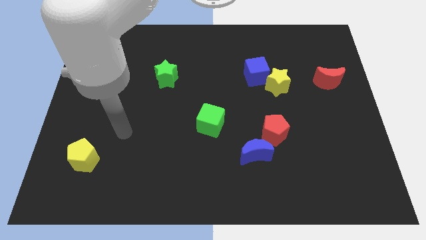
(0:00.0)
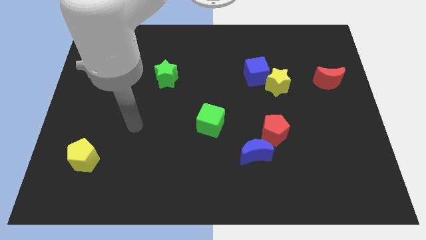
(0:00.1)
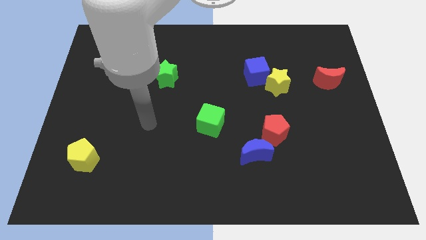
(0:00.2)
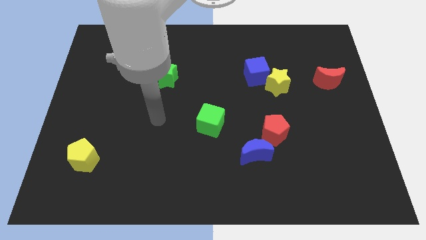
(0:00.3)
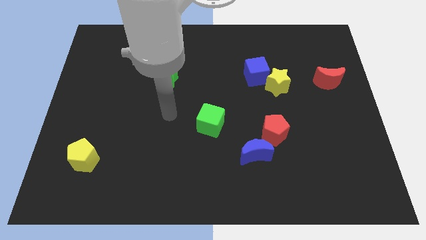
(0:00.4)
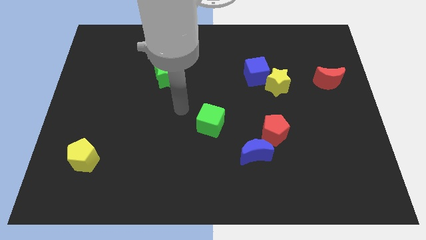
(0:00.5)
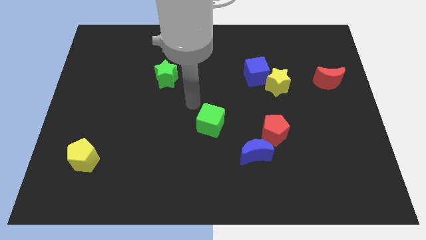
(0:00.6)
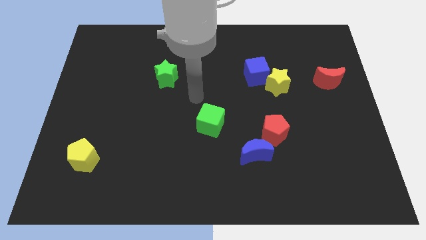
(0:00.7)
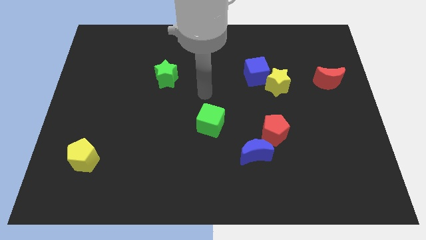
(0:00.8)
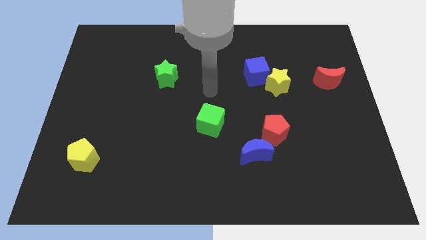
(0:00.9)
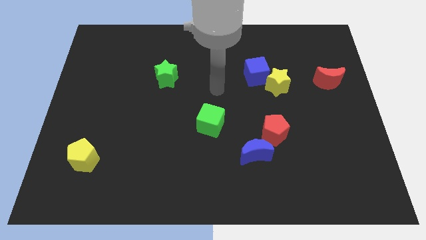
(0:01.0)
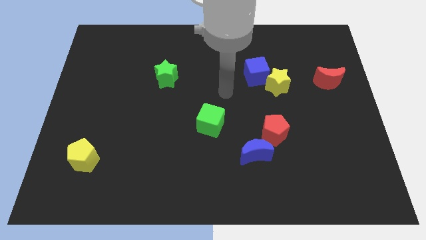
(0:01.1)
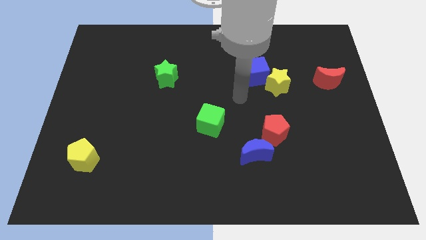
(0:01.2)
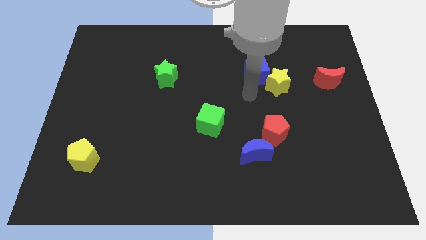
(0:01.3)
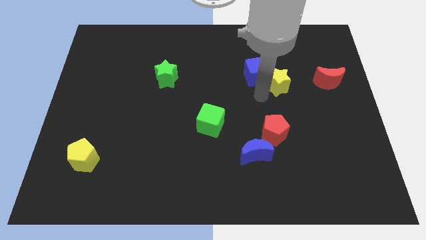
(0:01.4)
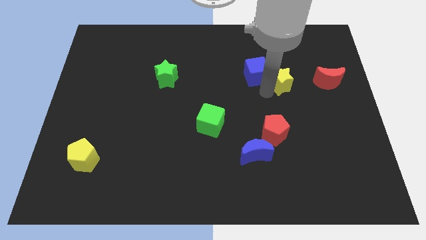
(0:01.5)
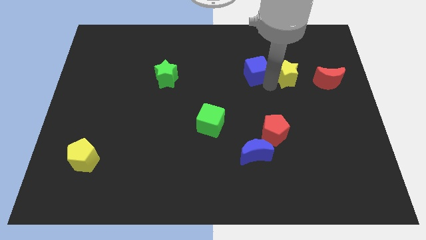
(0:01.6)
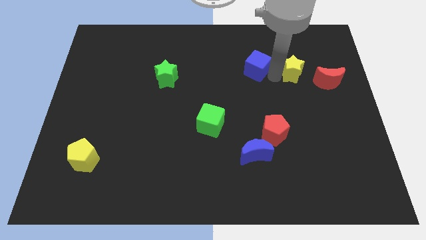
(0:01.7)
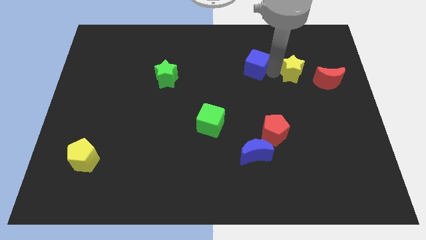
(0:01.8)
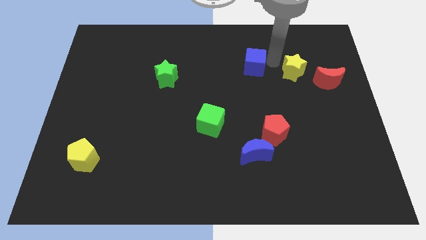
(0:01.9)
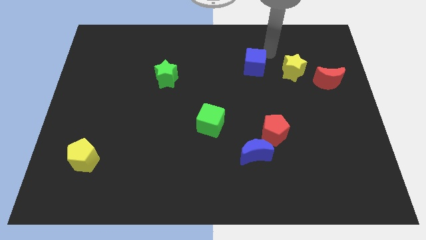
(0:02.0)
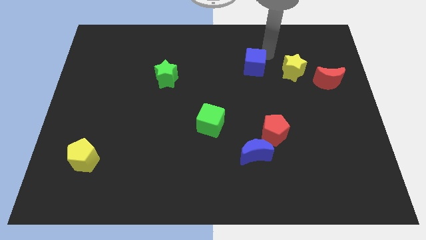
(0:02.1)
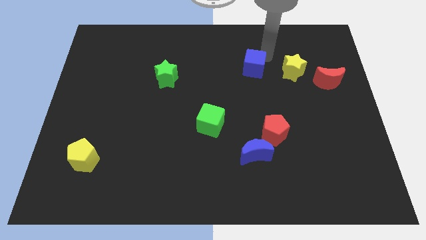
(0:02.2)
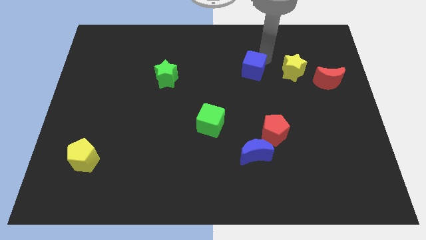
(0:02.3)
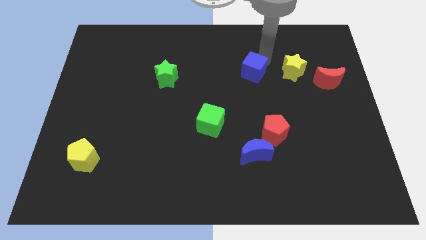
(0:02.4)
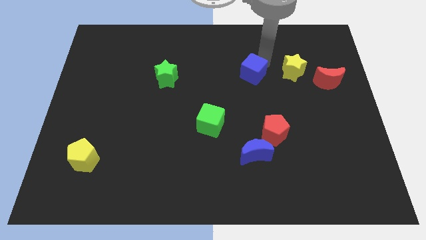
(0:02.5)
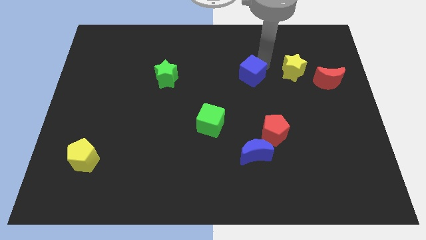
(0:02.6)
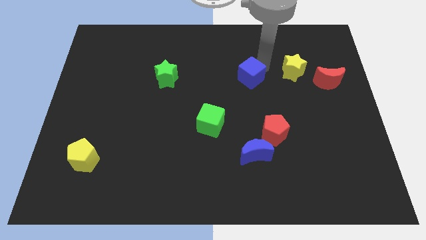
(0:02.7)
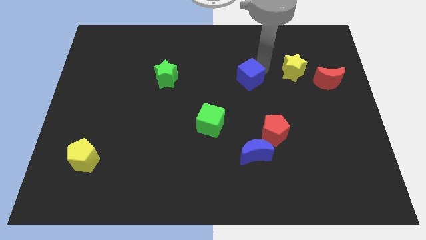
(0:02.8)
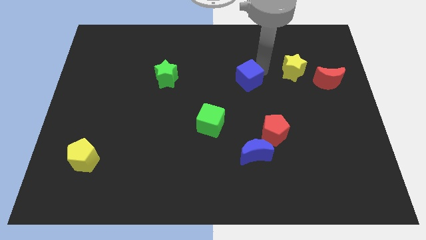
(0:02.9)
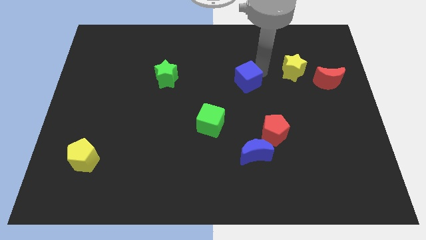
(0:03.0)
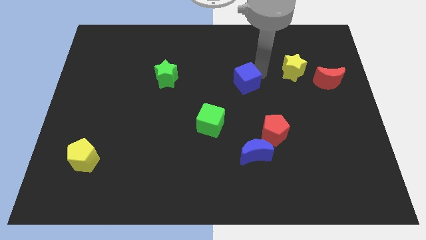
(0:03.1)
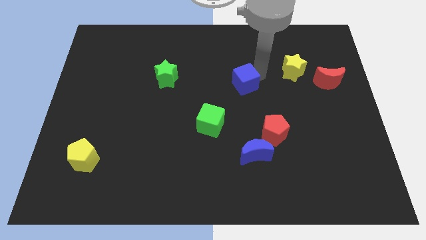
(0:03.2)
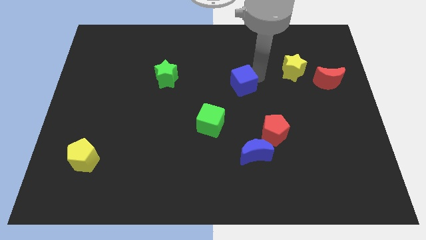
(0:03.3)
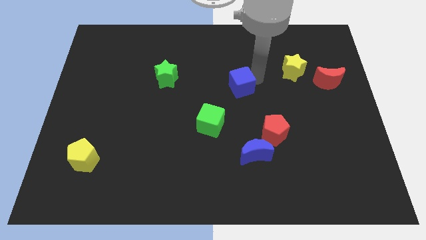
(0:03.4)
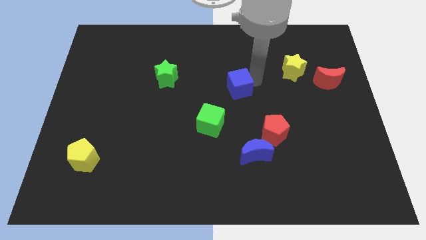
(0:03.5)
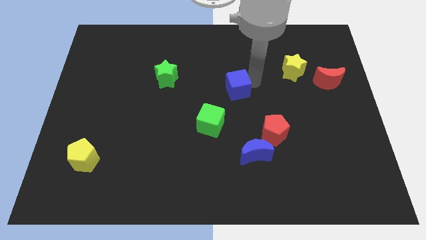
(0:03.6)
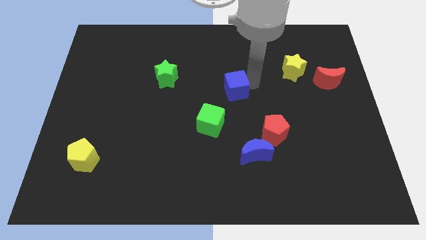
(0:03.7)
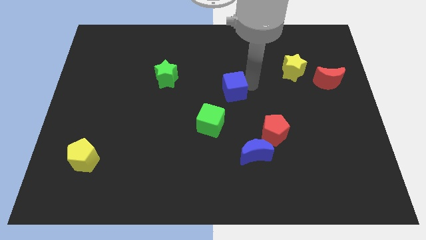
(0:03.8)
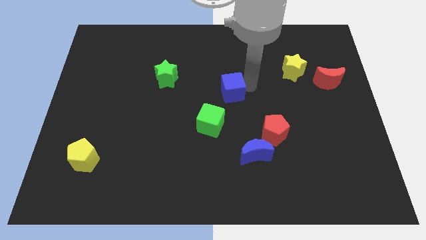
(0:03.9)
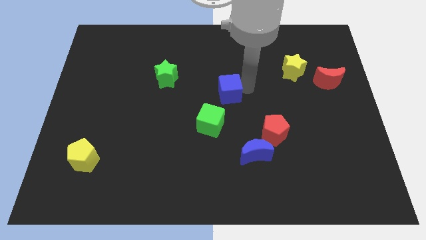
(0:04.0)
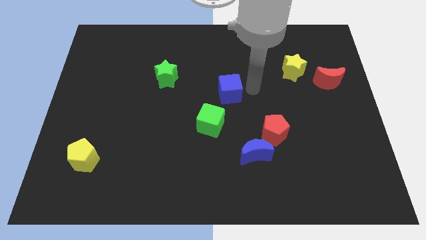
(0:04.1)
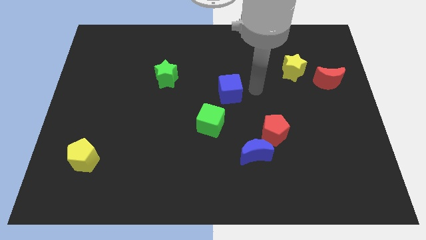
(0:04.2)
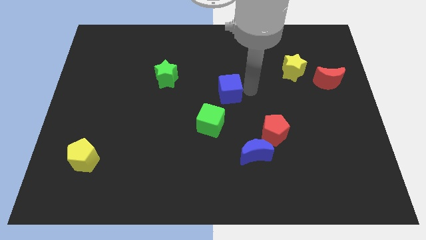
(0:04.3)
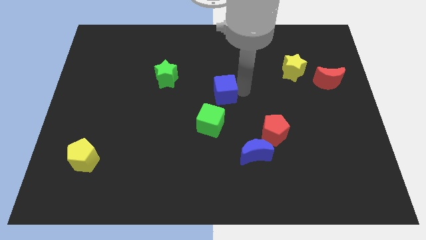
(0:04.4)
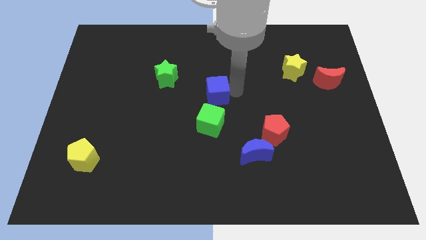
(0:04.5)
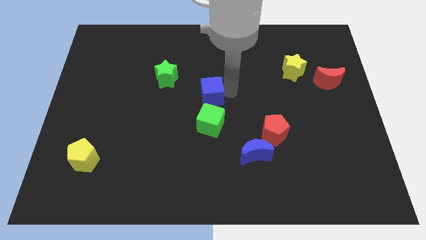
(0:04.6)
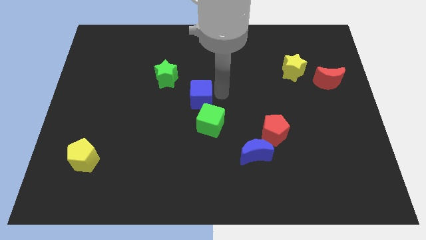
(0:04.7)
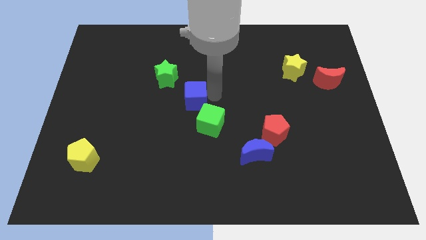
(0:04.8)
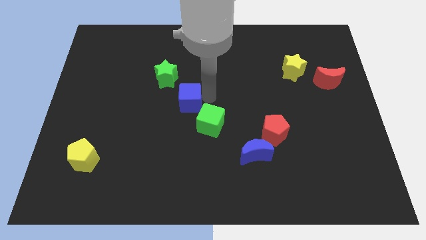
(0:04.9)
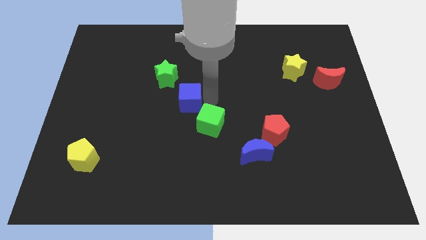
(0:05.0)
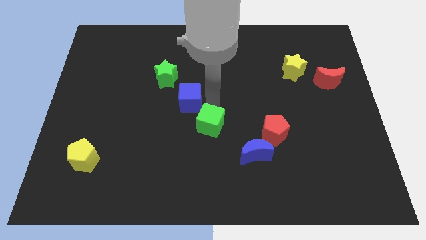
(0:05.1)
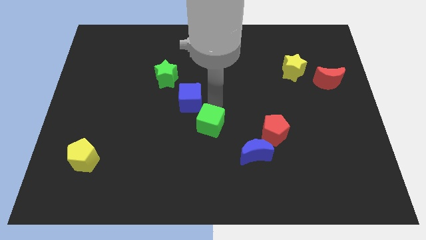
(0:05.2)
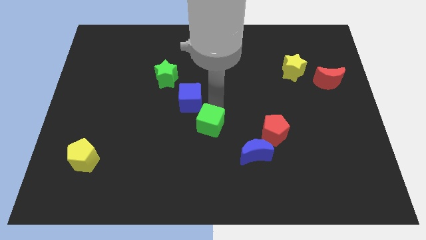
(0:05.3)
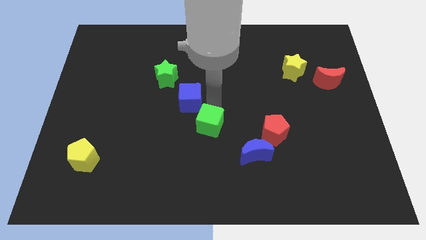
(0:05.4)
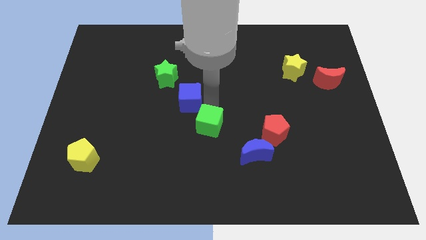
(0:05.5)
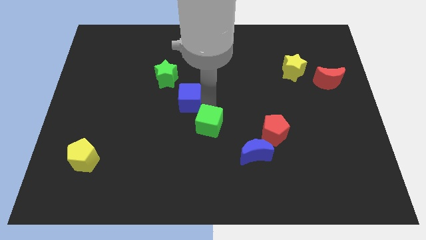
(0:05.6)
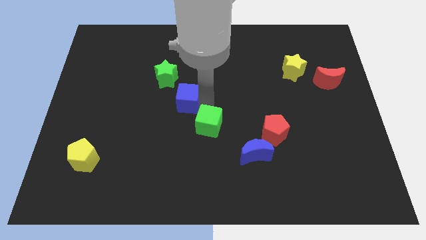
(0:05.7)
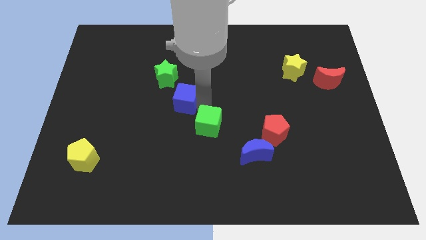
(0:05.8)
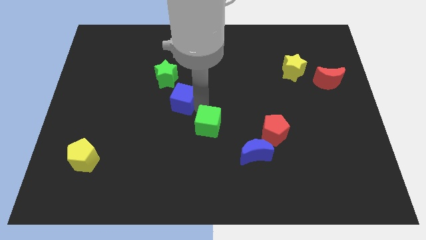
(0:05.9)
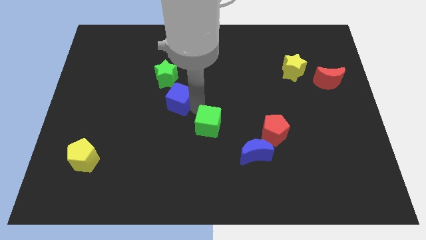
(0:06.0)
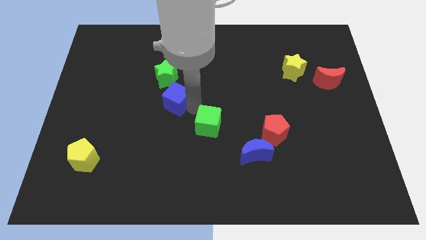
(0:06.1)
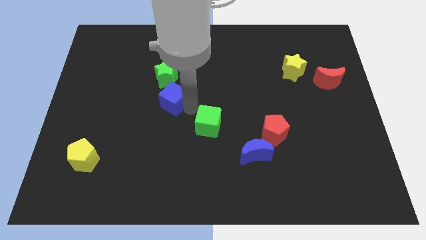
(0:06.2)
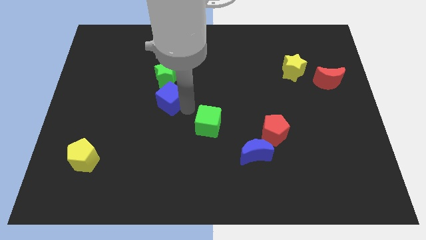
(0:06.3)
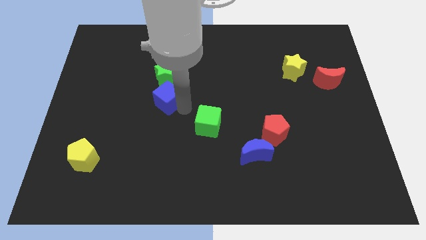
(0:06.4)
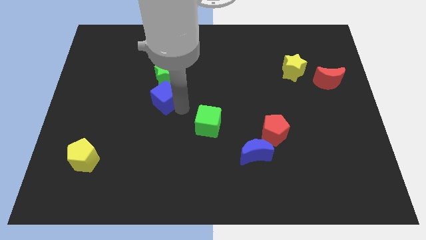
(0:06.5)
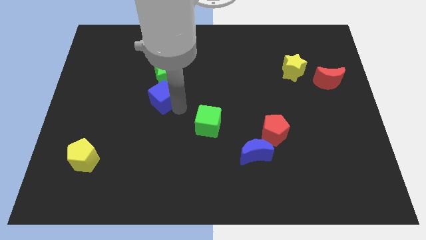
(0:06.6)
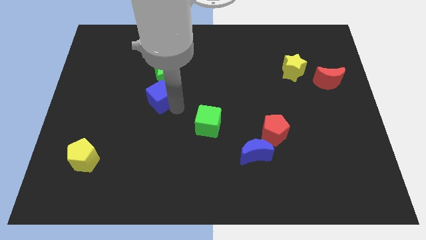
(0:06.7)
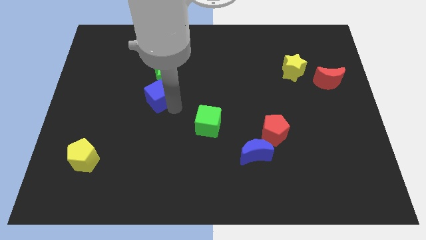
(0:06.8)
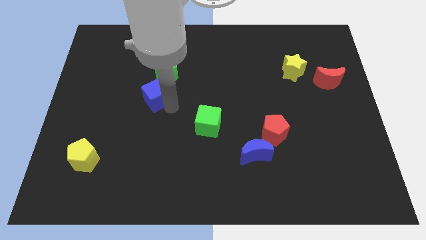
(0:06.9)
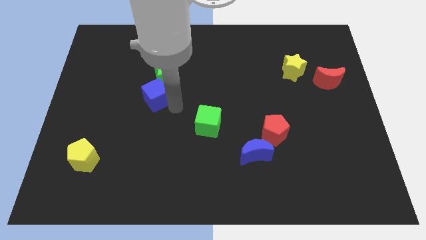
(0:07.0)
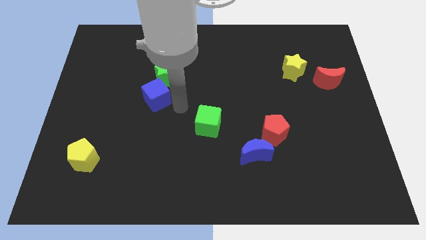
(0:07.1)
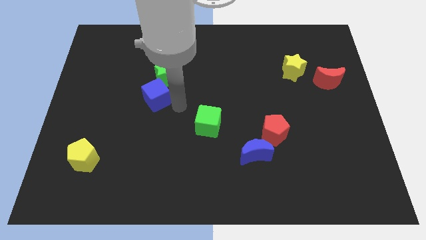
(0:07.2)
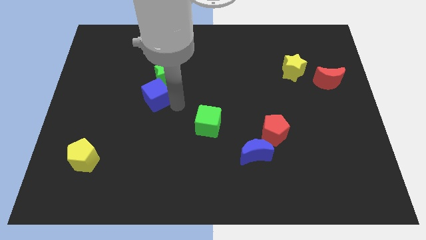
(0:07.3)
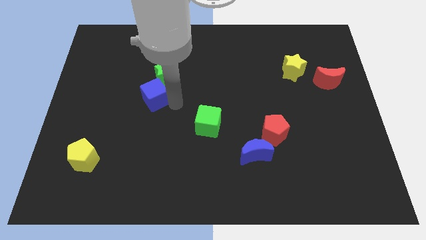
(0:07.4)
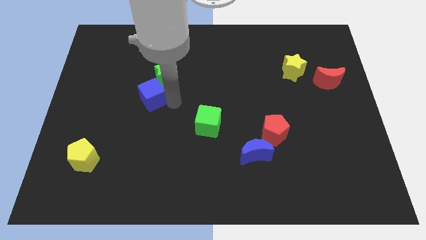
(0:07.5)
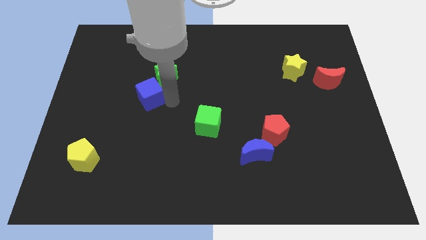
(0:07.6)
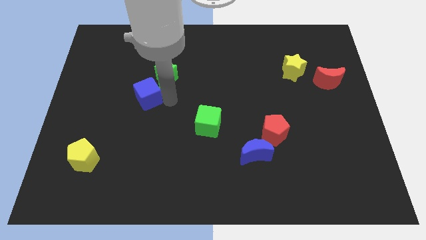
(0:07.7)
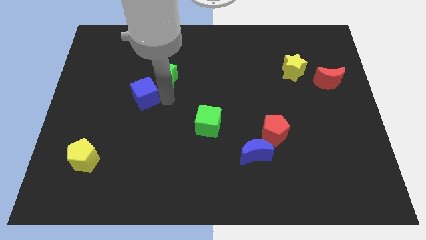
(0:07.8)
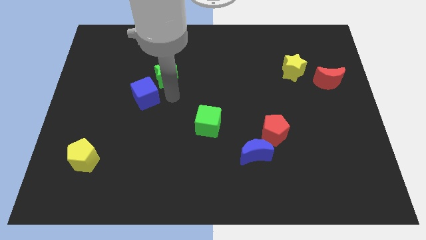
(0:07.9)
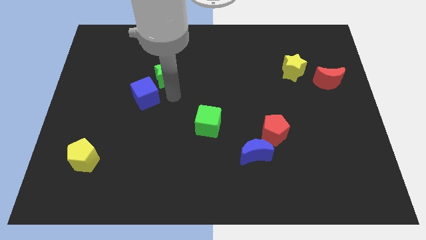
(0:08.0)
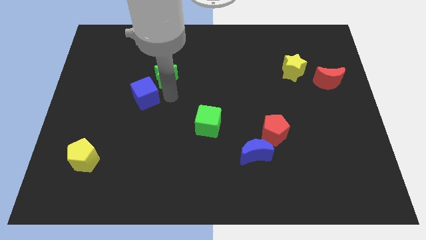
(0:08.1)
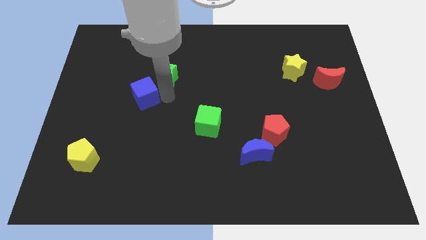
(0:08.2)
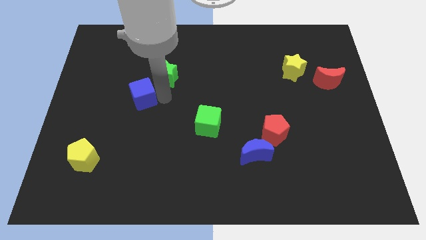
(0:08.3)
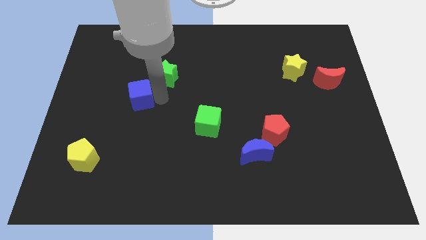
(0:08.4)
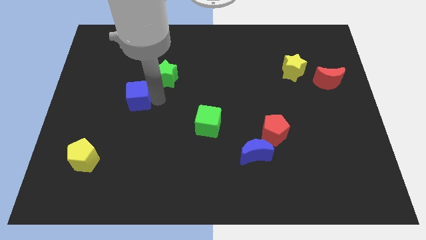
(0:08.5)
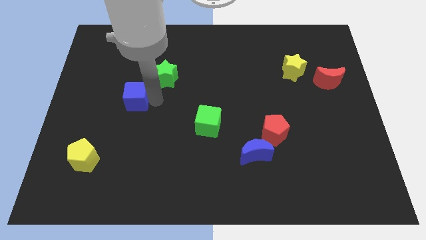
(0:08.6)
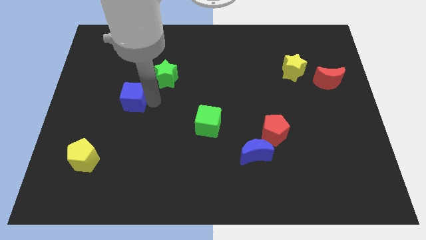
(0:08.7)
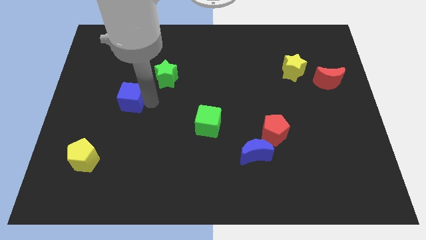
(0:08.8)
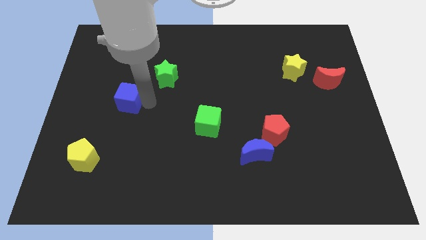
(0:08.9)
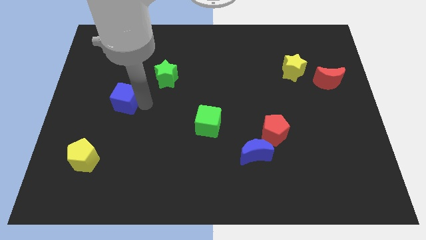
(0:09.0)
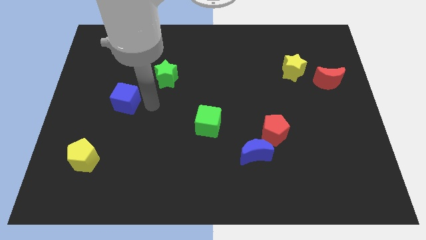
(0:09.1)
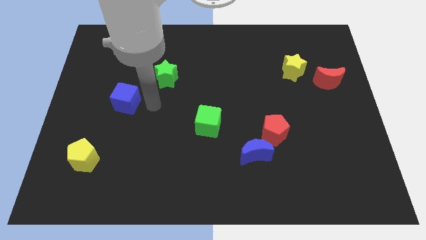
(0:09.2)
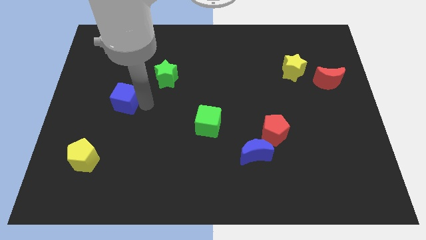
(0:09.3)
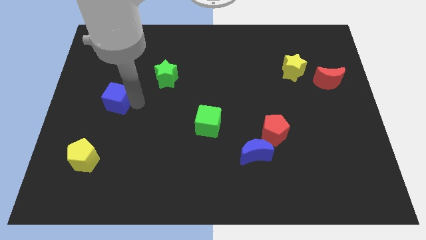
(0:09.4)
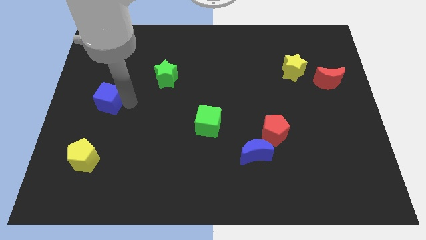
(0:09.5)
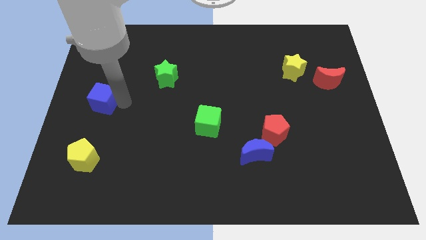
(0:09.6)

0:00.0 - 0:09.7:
push the blue cube to the center left
